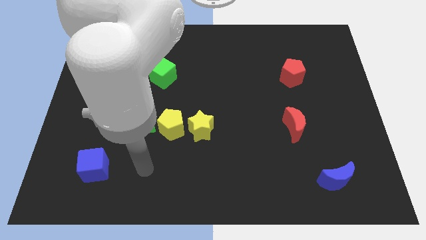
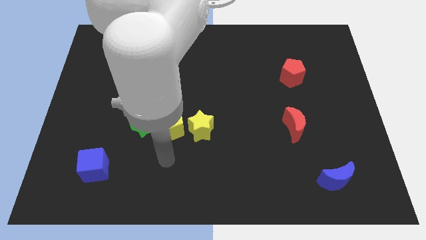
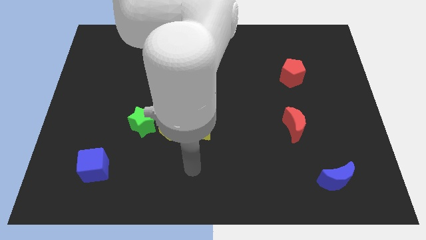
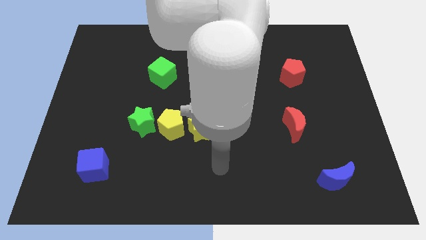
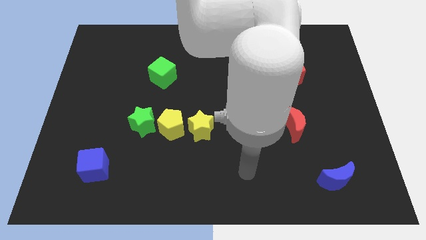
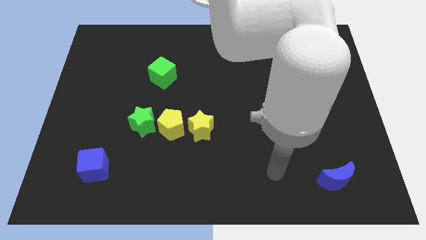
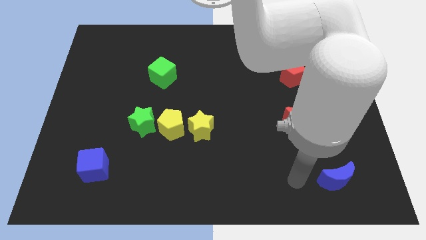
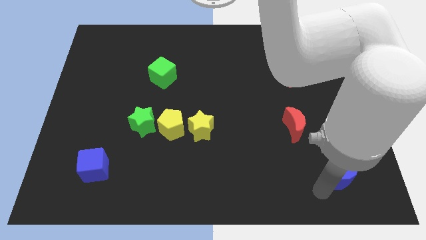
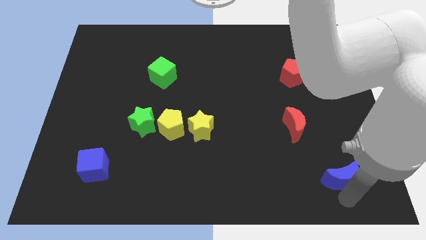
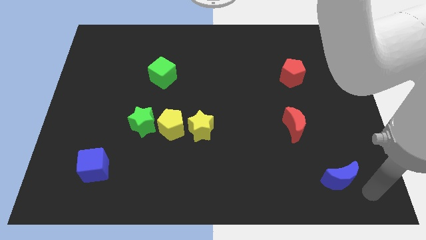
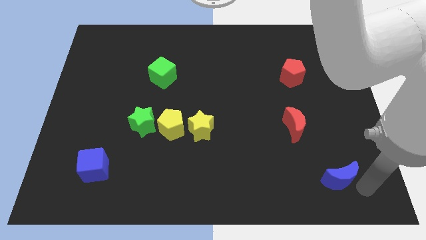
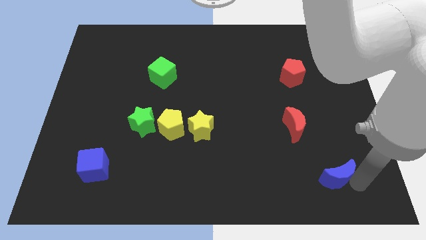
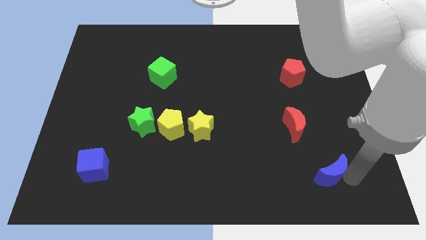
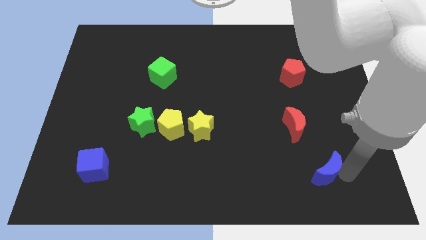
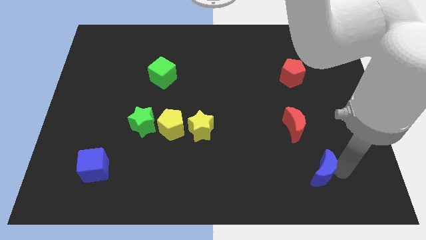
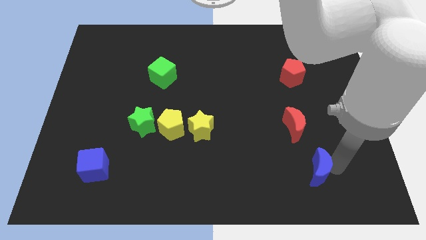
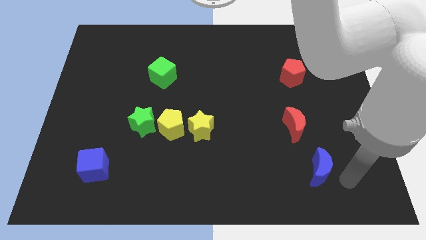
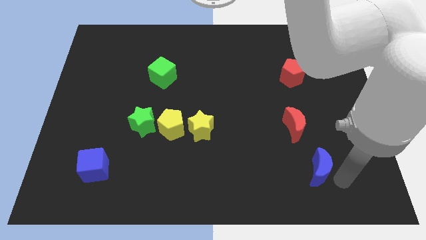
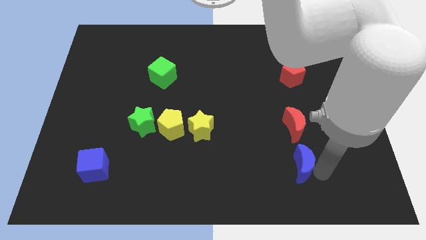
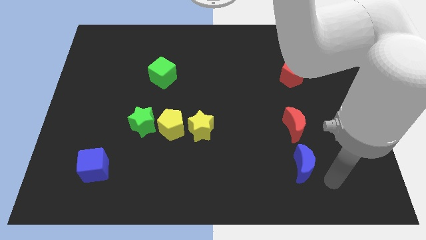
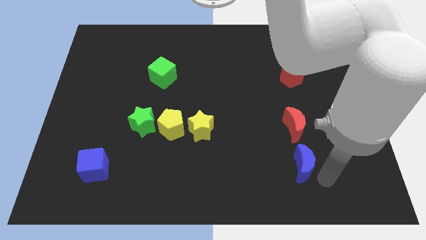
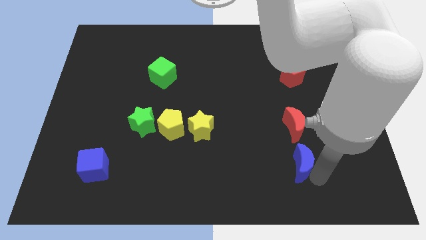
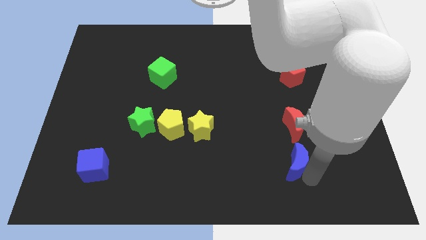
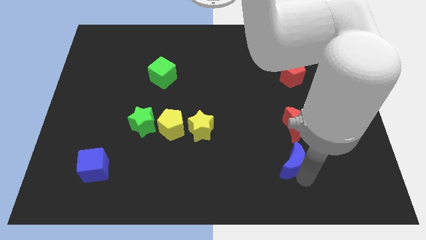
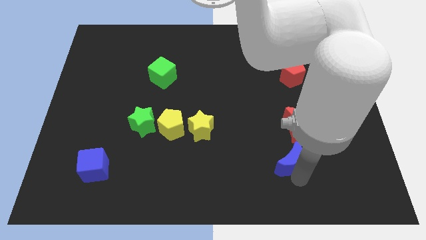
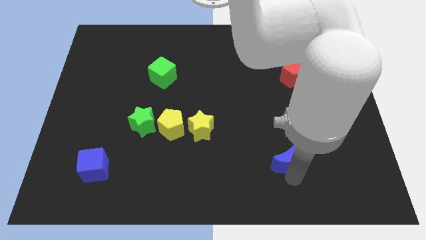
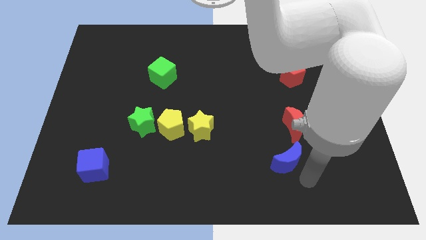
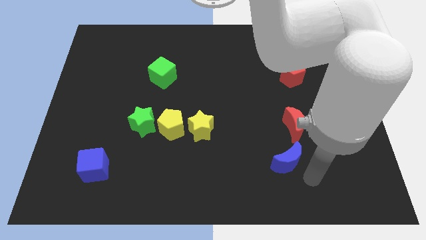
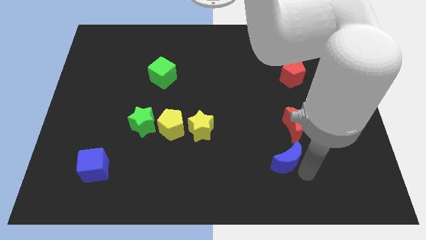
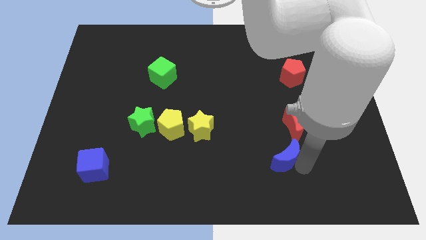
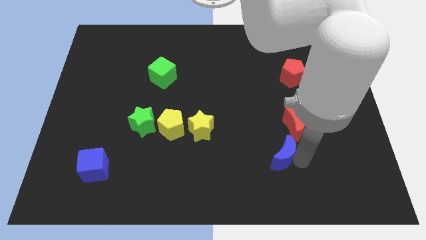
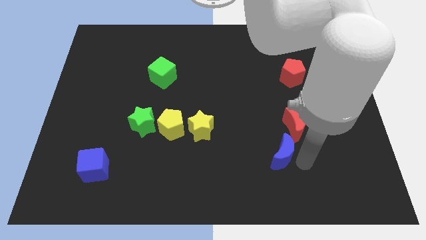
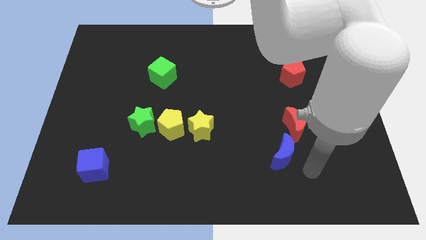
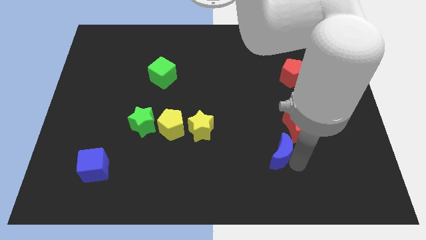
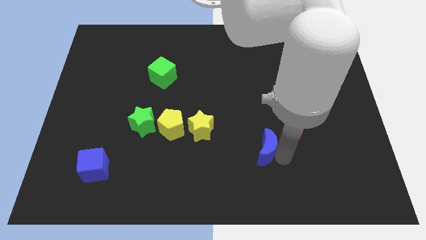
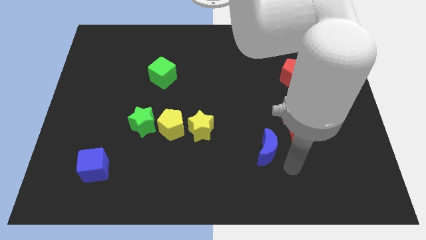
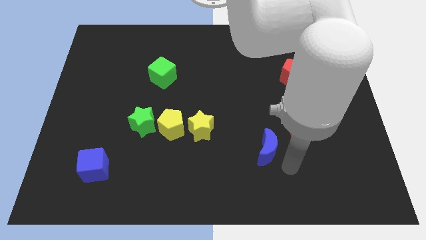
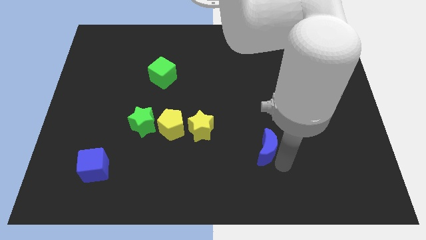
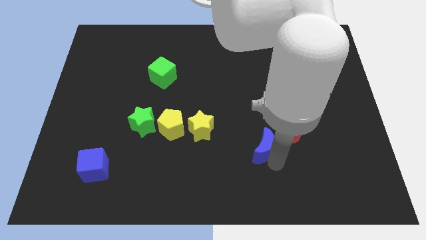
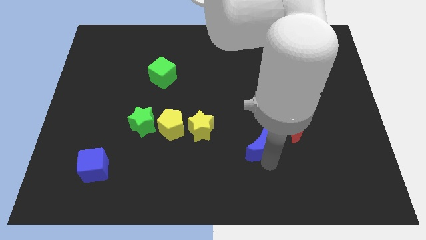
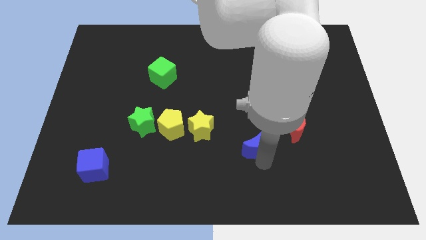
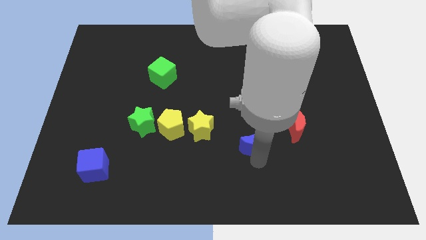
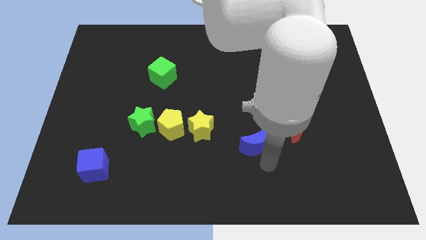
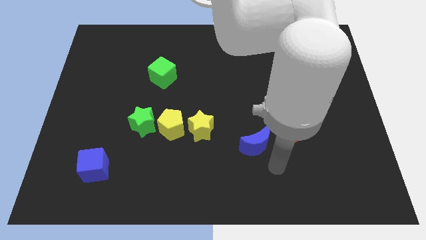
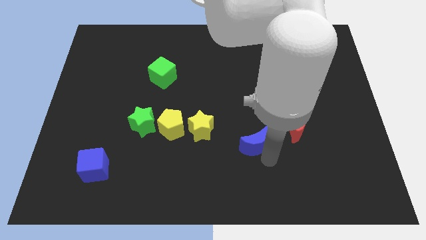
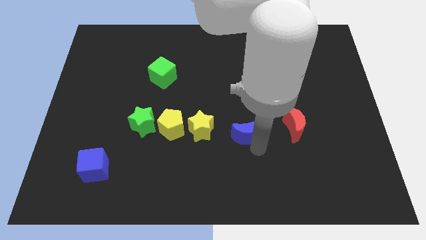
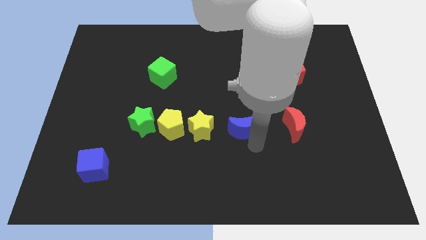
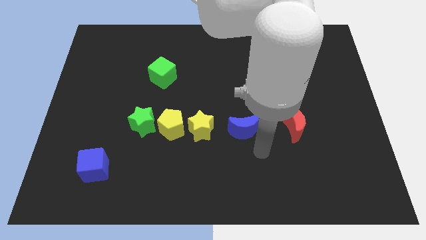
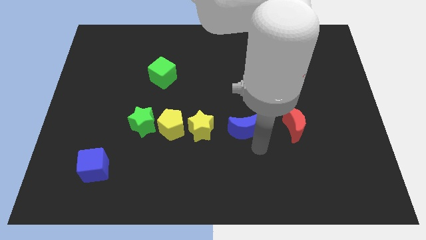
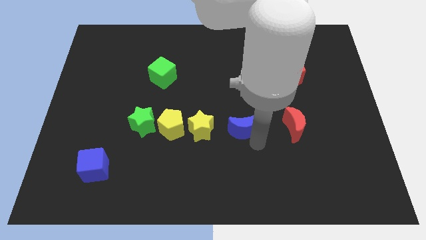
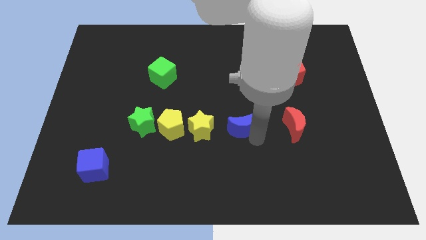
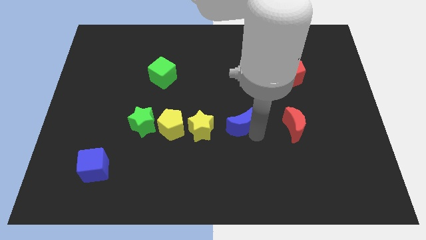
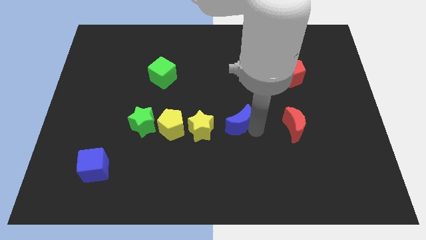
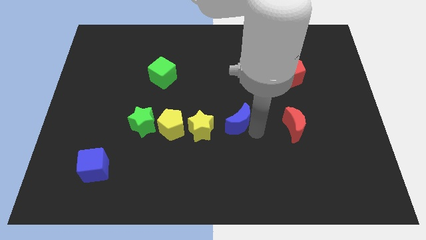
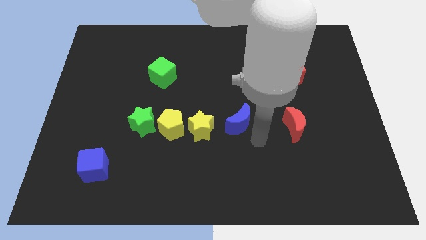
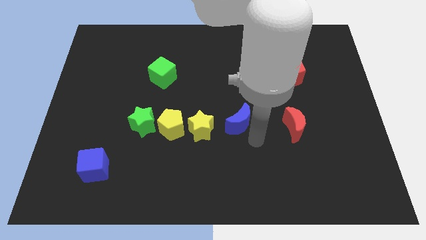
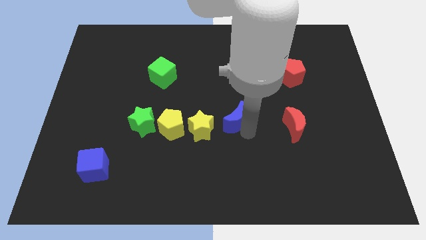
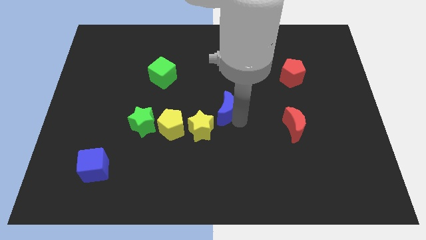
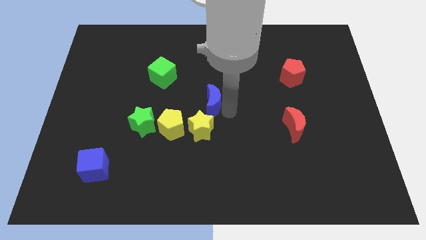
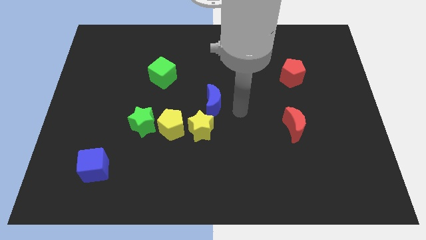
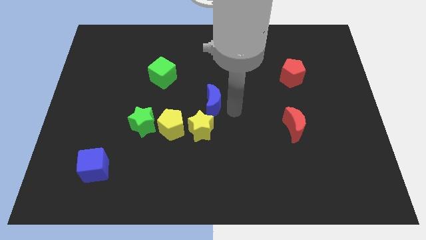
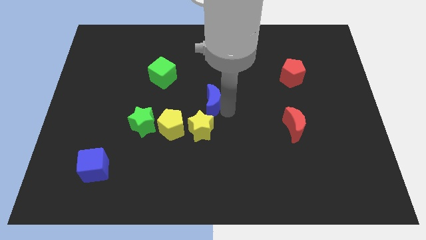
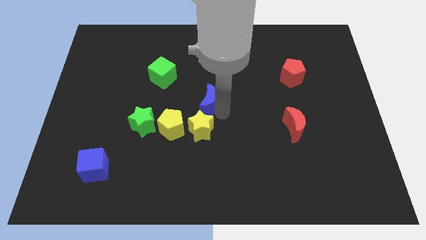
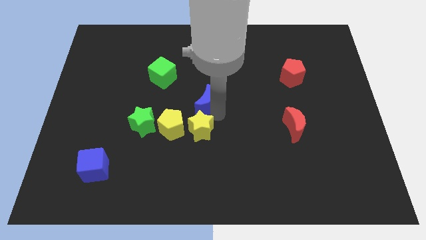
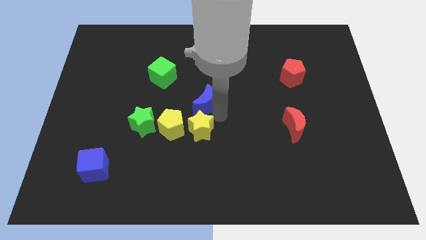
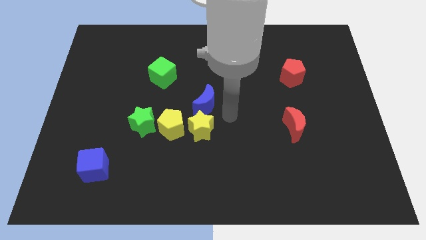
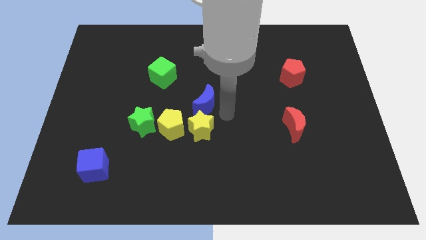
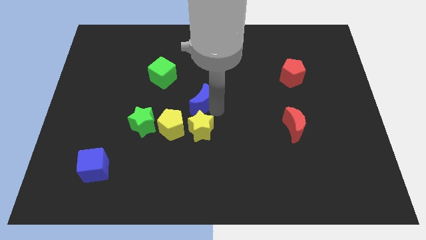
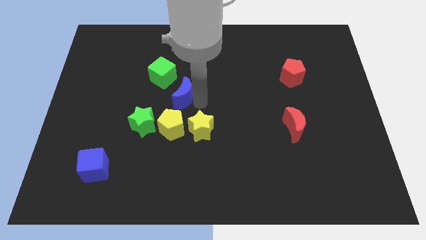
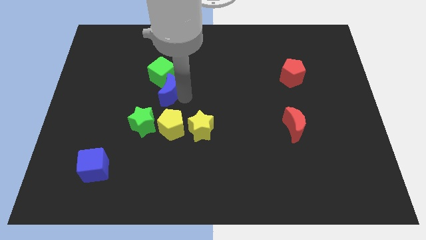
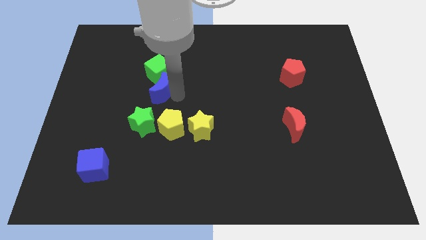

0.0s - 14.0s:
push the blue moon above the green star
